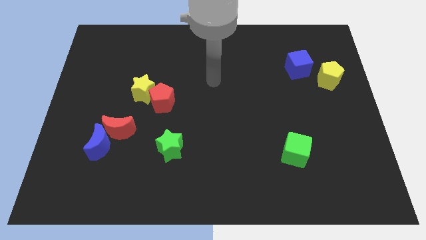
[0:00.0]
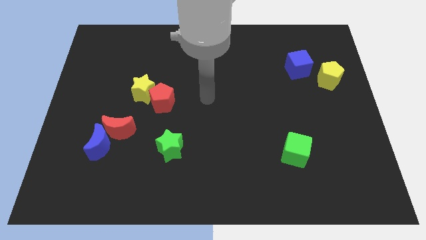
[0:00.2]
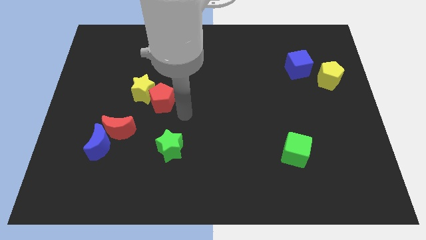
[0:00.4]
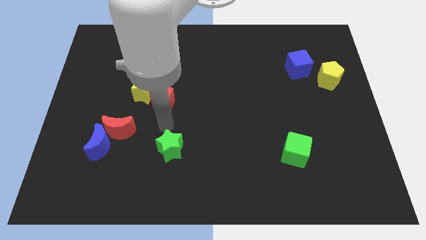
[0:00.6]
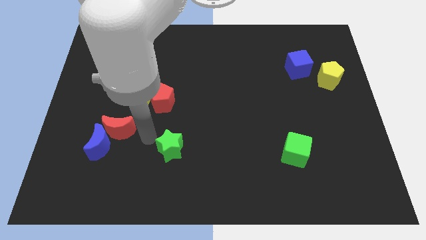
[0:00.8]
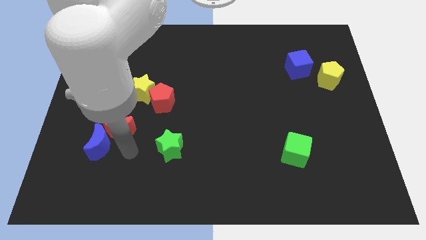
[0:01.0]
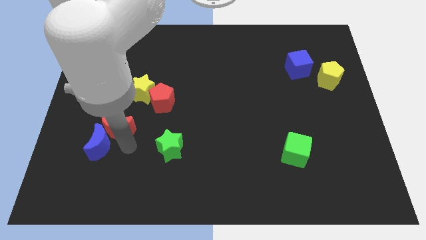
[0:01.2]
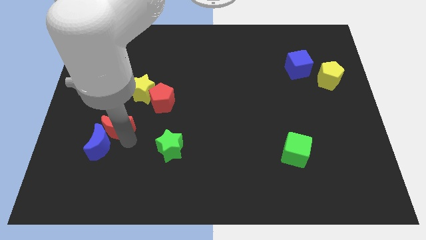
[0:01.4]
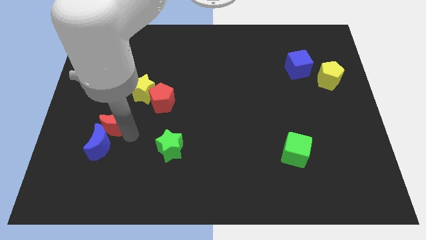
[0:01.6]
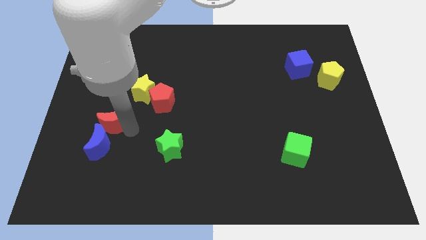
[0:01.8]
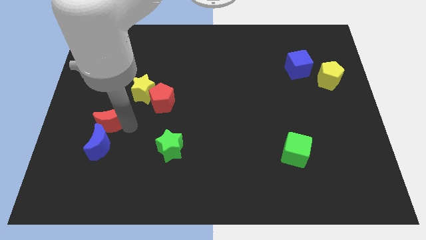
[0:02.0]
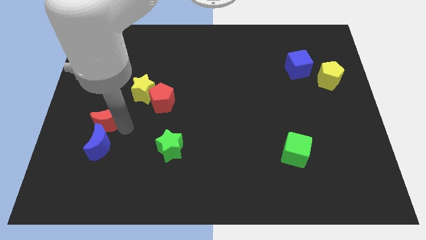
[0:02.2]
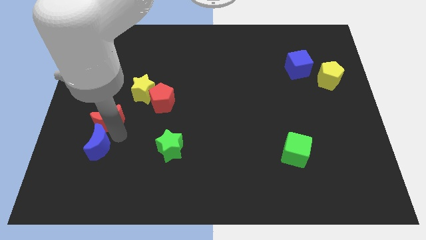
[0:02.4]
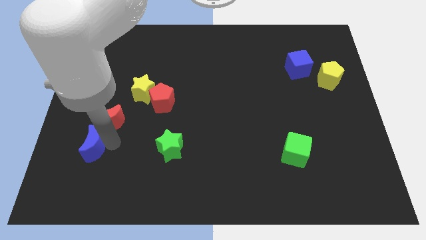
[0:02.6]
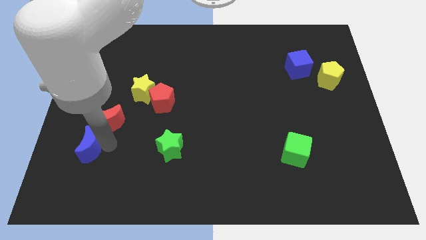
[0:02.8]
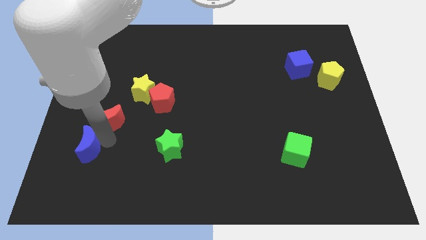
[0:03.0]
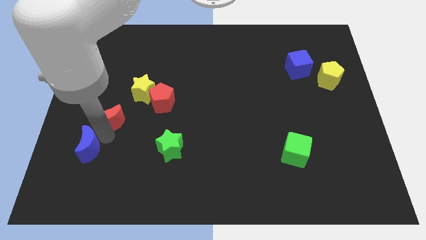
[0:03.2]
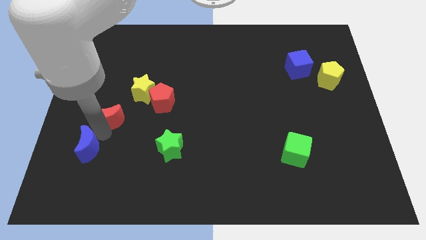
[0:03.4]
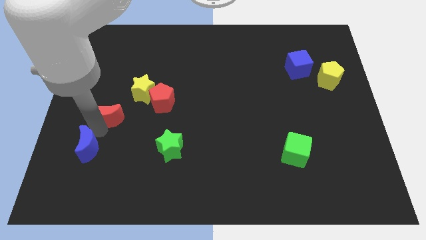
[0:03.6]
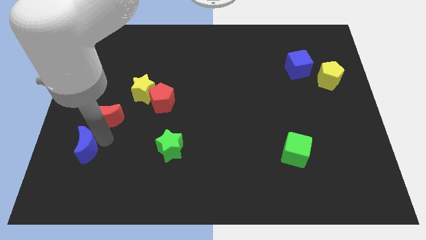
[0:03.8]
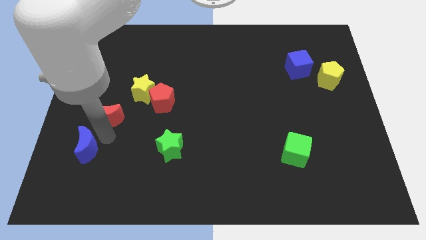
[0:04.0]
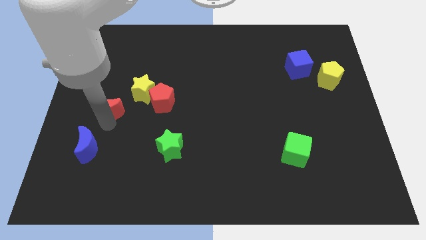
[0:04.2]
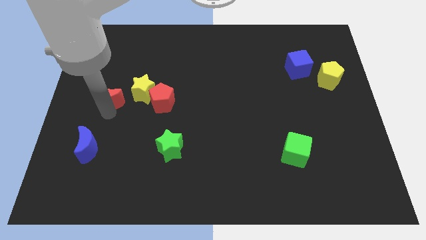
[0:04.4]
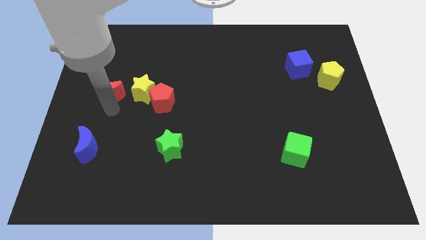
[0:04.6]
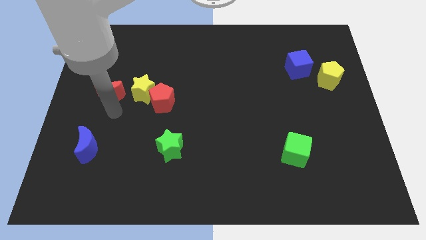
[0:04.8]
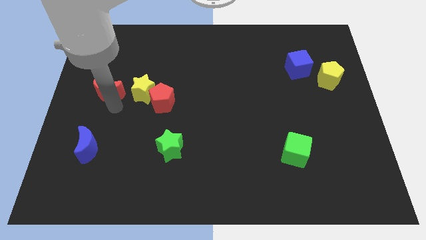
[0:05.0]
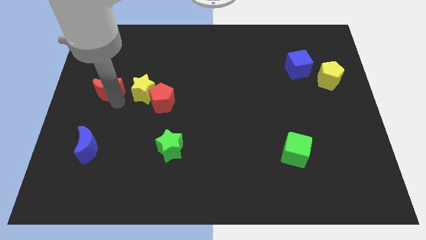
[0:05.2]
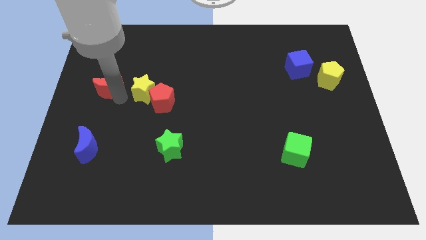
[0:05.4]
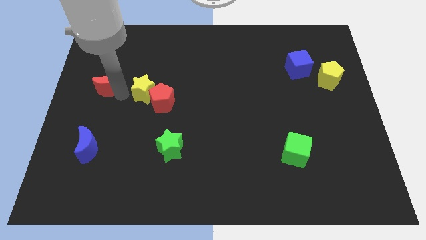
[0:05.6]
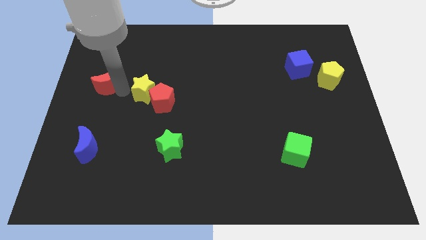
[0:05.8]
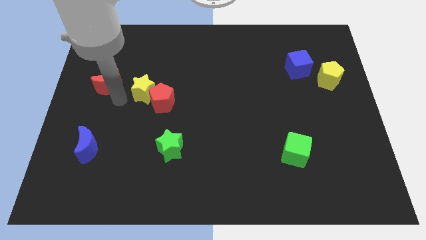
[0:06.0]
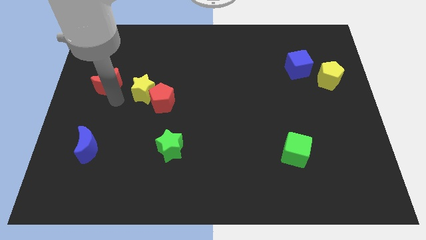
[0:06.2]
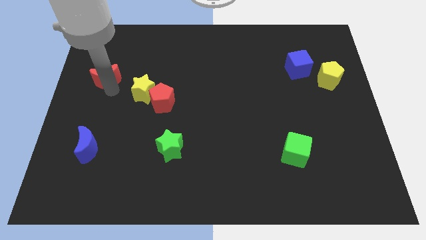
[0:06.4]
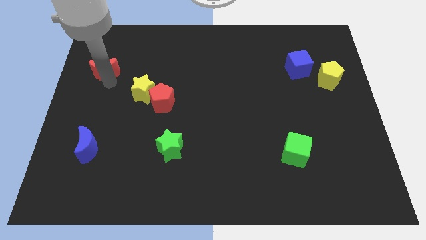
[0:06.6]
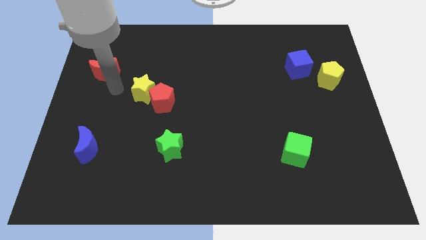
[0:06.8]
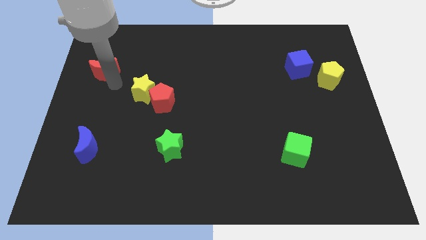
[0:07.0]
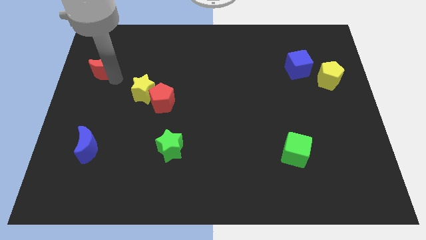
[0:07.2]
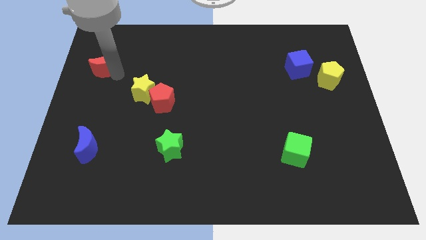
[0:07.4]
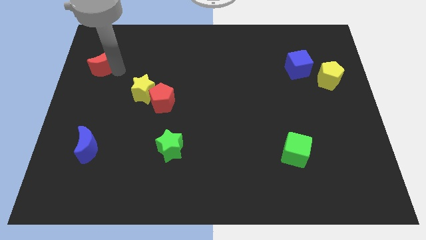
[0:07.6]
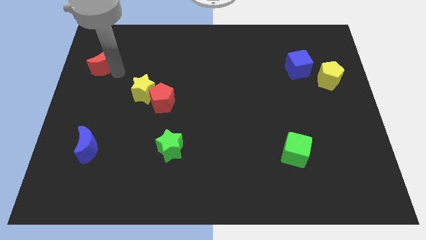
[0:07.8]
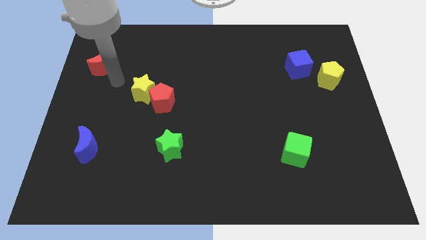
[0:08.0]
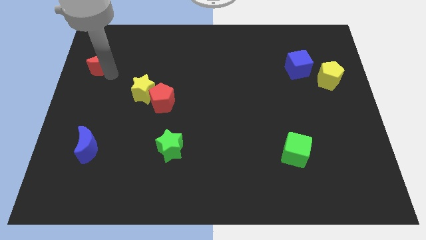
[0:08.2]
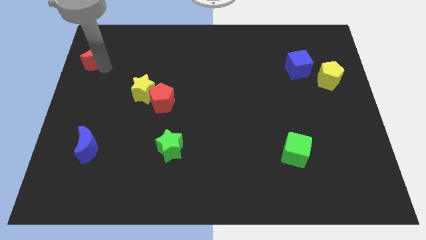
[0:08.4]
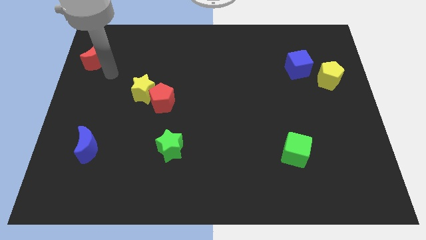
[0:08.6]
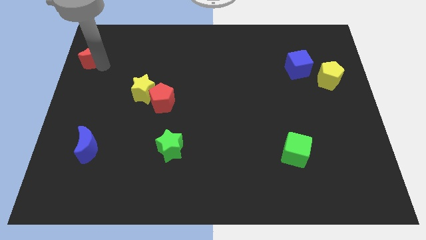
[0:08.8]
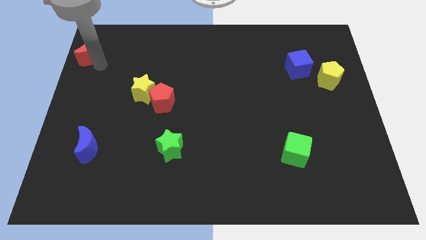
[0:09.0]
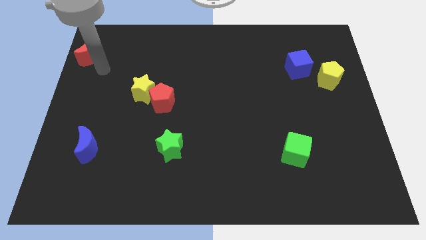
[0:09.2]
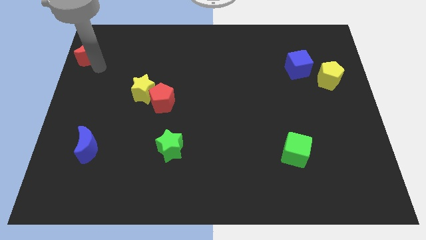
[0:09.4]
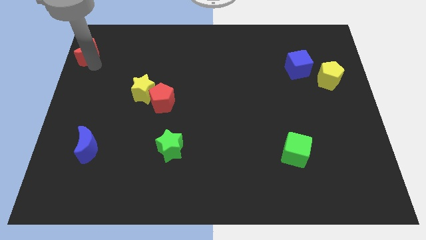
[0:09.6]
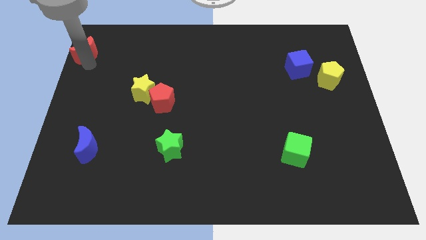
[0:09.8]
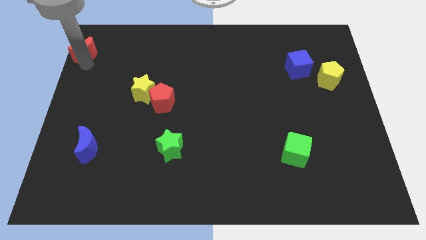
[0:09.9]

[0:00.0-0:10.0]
move the red moon to the top left corner

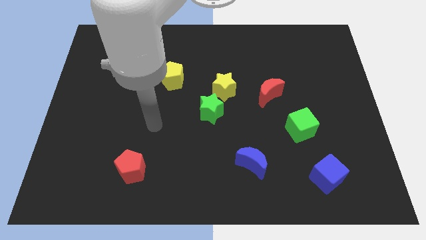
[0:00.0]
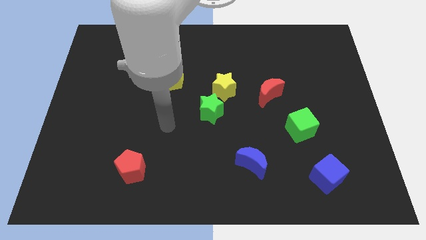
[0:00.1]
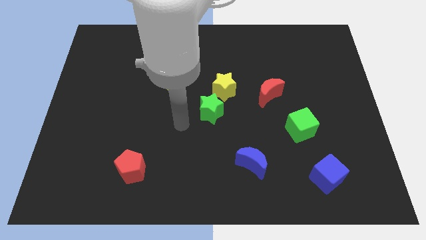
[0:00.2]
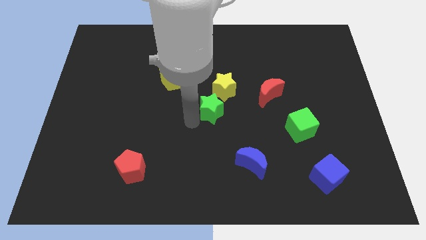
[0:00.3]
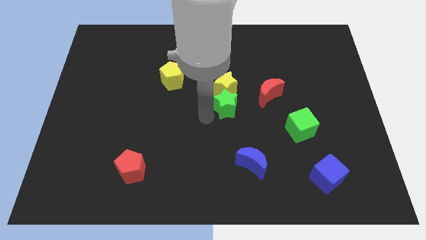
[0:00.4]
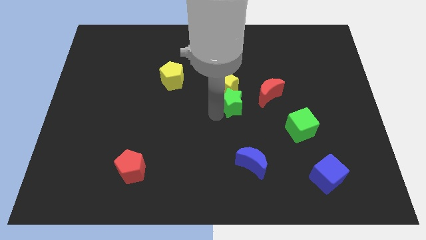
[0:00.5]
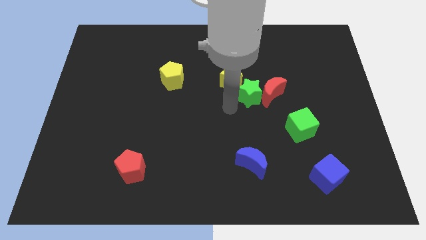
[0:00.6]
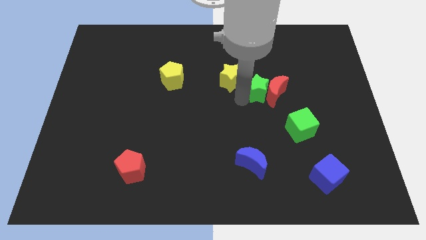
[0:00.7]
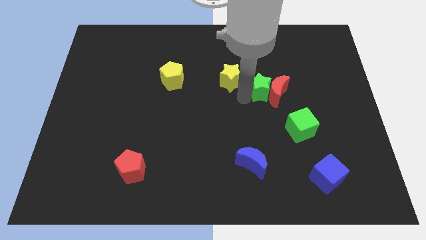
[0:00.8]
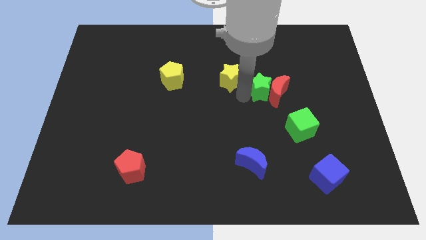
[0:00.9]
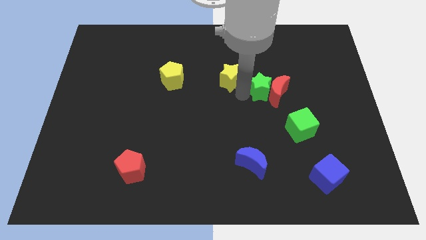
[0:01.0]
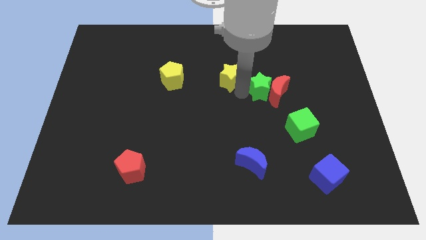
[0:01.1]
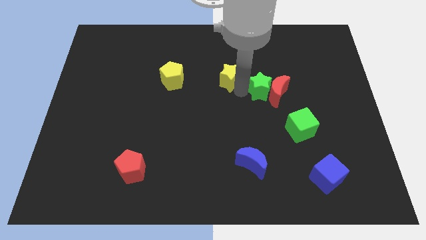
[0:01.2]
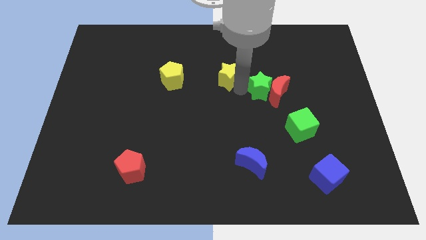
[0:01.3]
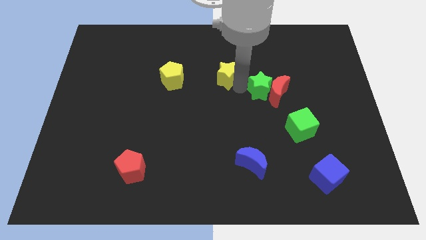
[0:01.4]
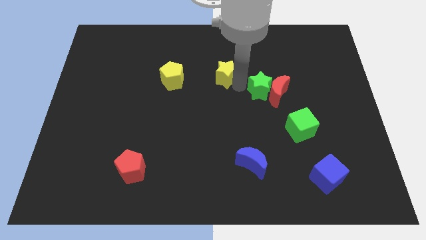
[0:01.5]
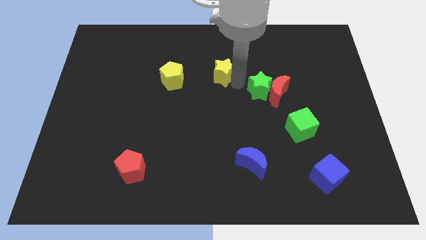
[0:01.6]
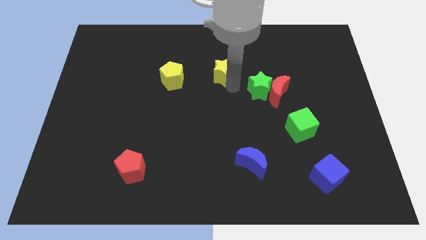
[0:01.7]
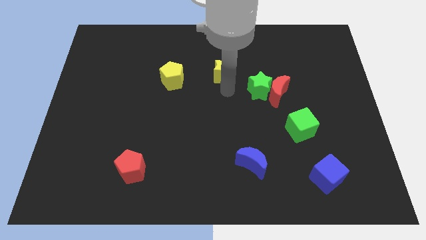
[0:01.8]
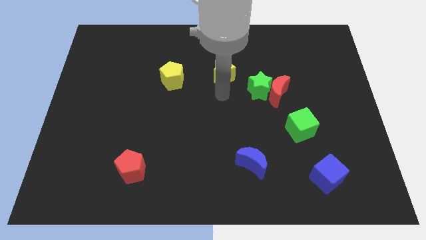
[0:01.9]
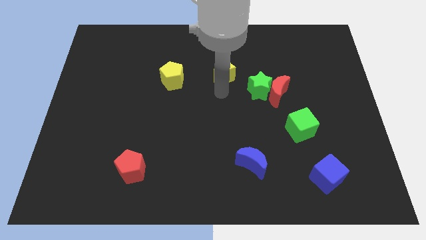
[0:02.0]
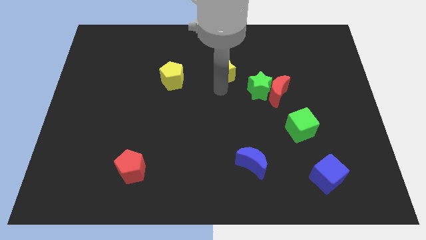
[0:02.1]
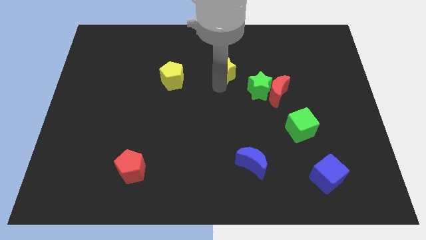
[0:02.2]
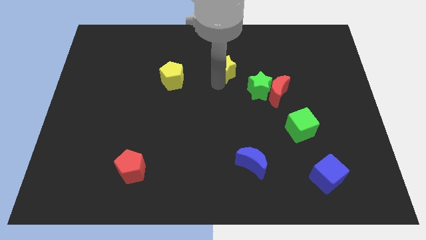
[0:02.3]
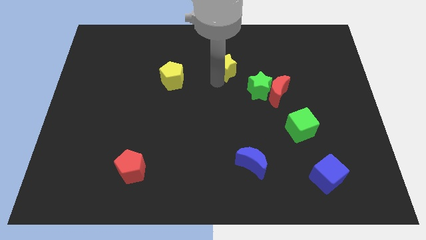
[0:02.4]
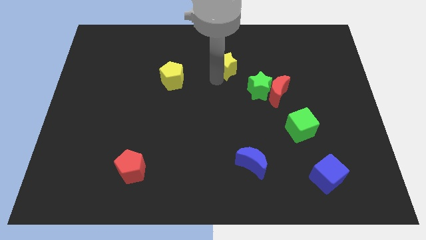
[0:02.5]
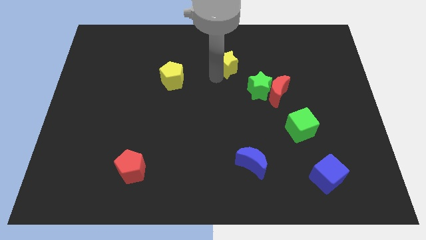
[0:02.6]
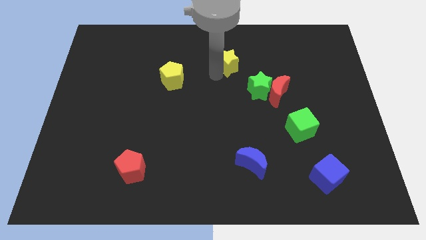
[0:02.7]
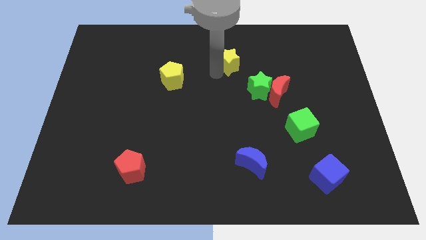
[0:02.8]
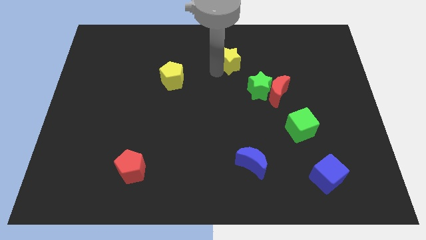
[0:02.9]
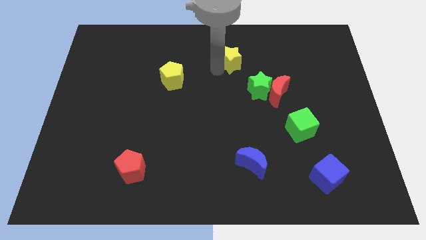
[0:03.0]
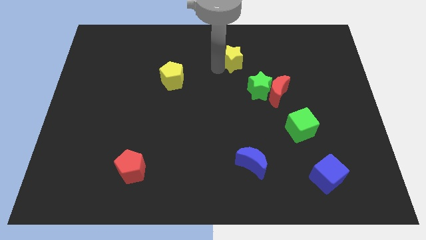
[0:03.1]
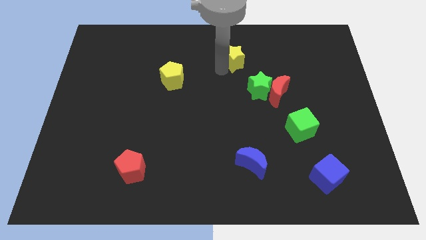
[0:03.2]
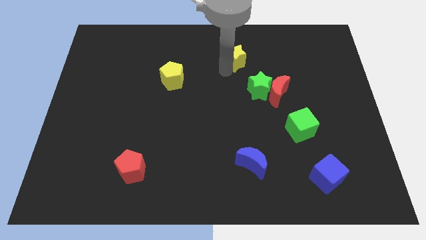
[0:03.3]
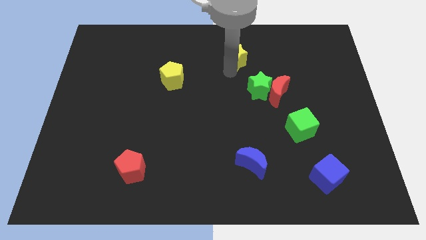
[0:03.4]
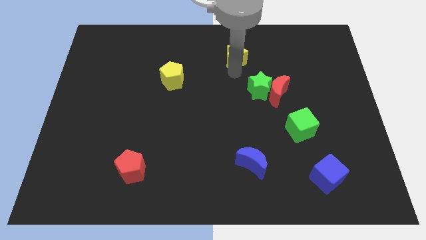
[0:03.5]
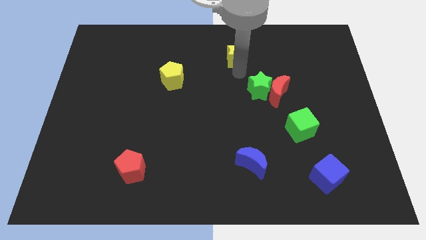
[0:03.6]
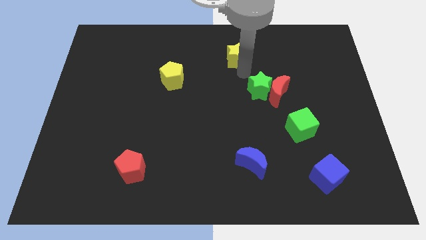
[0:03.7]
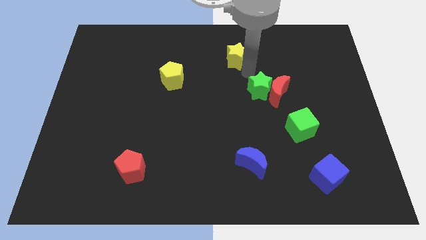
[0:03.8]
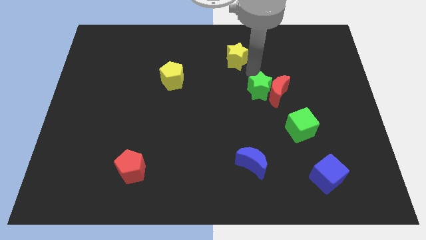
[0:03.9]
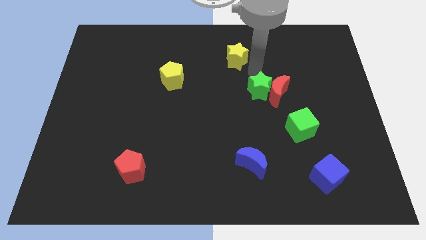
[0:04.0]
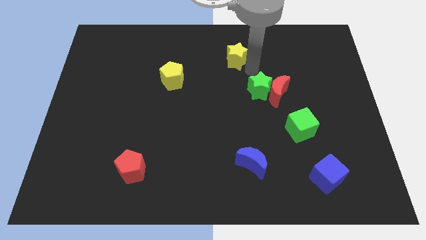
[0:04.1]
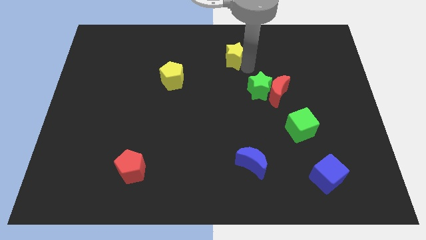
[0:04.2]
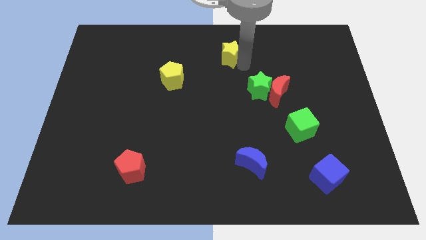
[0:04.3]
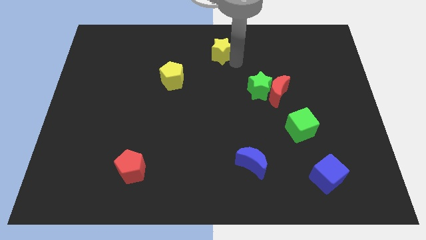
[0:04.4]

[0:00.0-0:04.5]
push the yellow star to the top side
